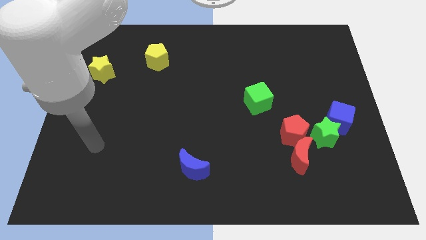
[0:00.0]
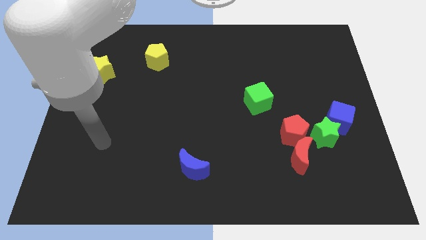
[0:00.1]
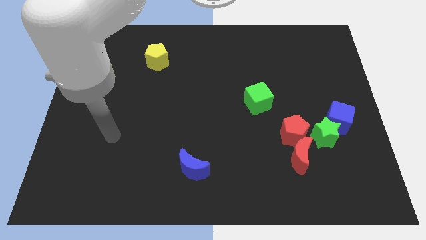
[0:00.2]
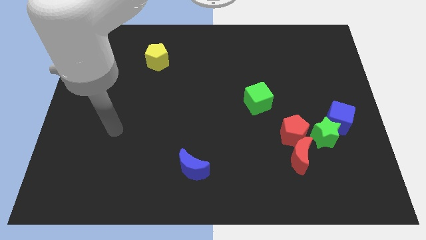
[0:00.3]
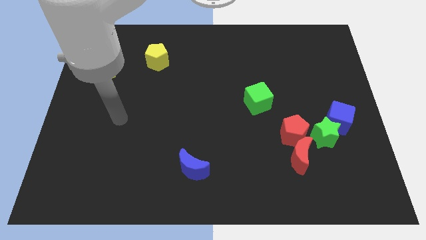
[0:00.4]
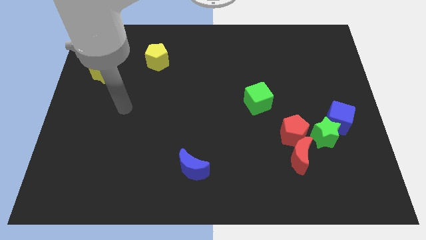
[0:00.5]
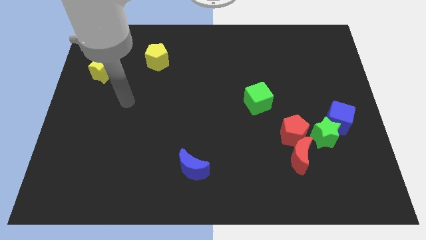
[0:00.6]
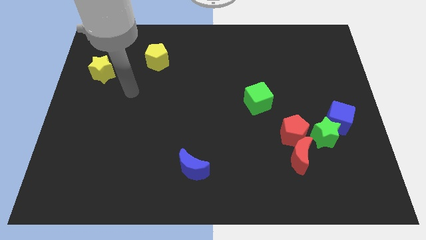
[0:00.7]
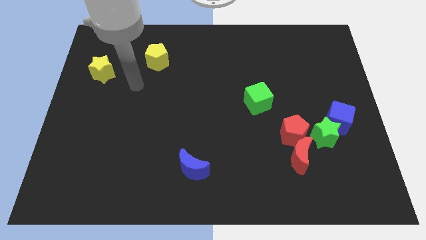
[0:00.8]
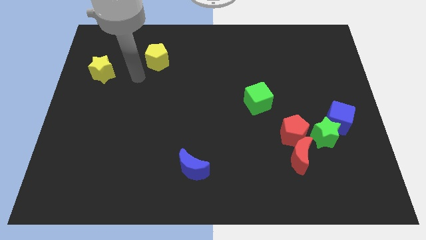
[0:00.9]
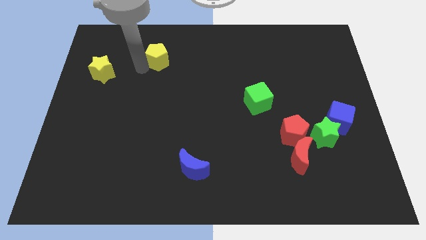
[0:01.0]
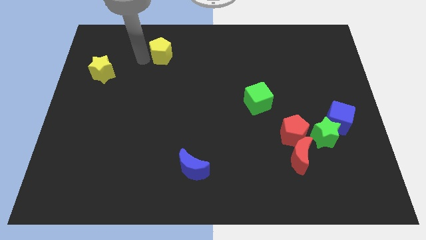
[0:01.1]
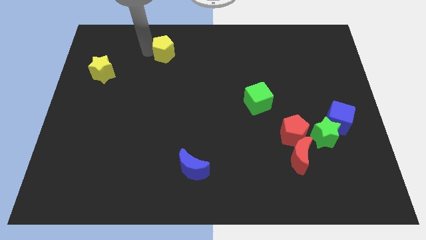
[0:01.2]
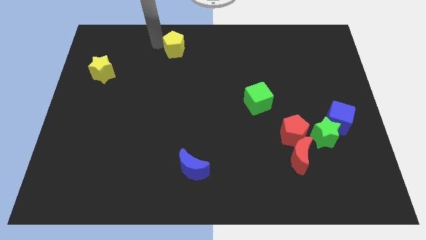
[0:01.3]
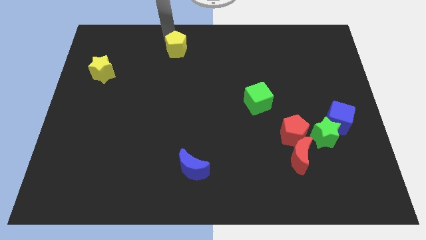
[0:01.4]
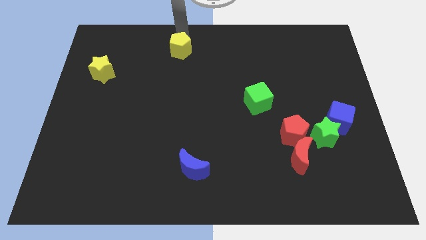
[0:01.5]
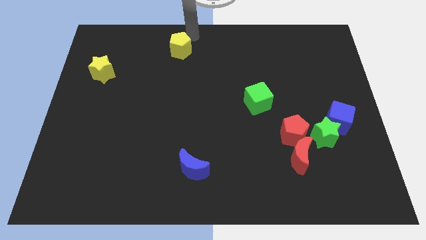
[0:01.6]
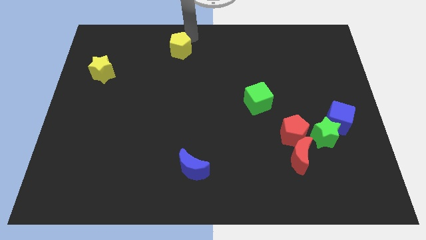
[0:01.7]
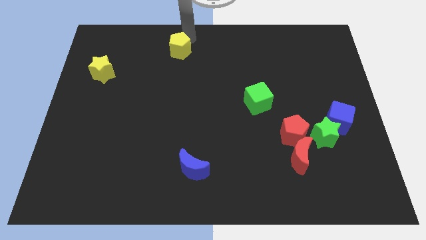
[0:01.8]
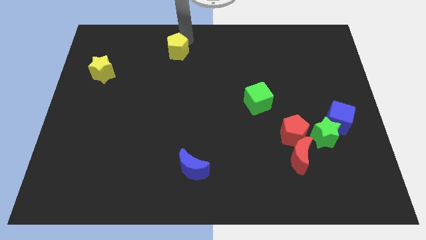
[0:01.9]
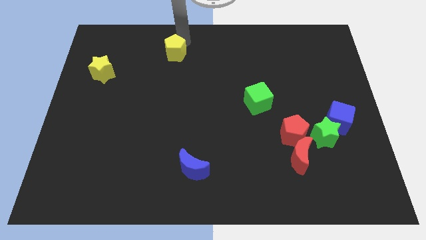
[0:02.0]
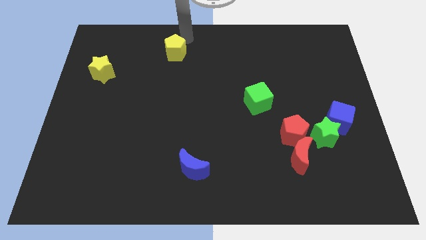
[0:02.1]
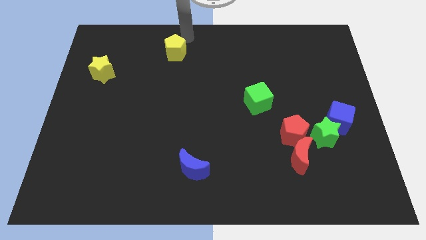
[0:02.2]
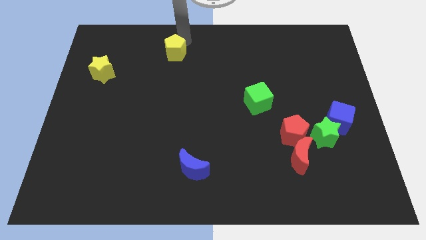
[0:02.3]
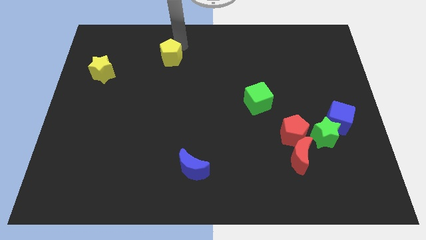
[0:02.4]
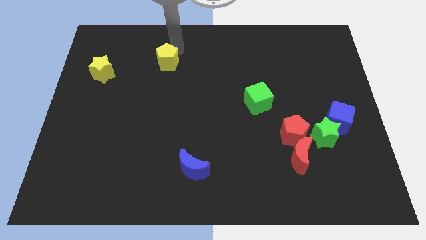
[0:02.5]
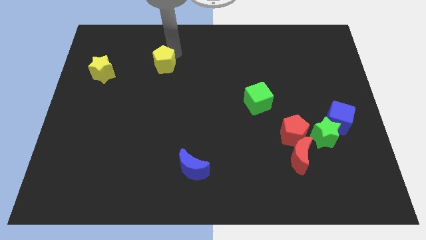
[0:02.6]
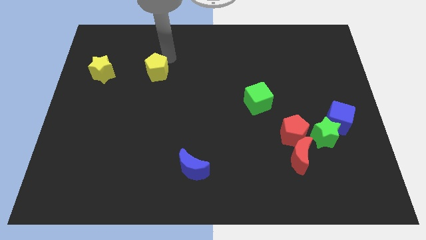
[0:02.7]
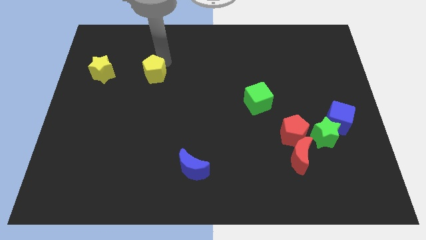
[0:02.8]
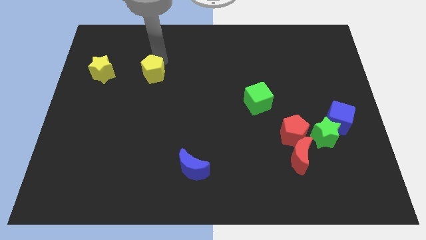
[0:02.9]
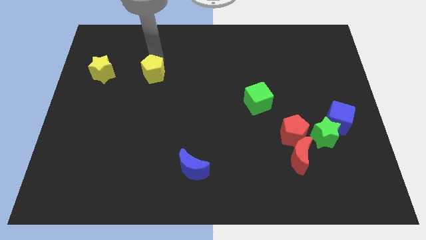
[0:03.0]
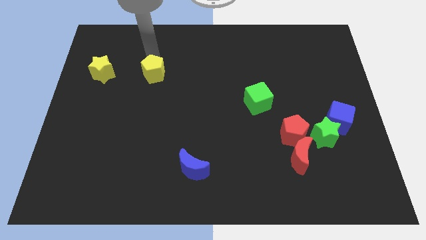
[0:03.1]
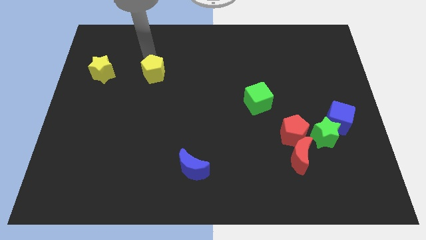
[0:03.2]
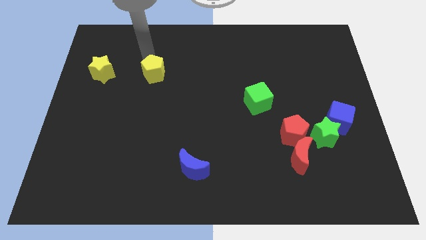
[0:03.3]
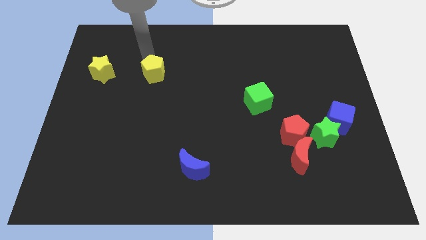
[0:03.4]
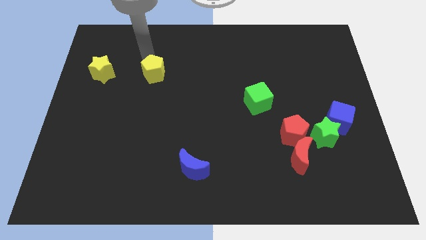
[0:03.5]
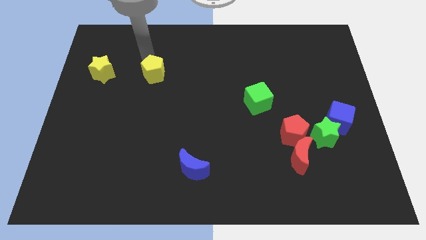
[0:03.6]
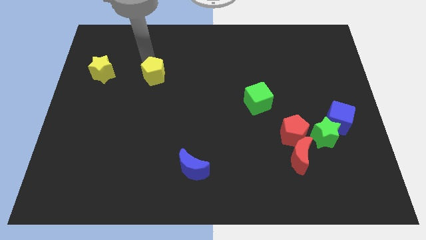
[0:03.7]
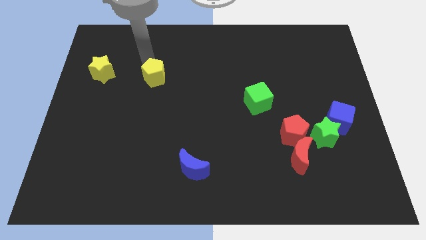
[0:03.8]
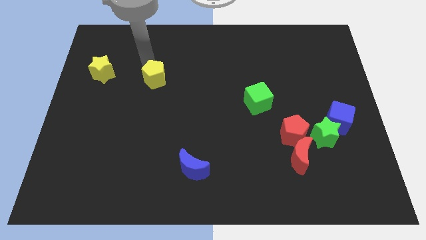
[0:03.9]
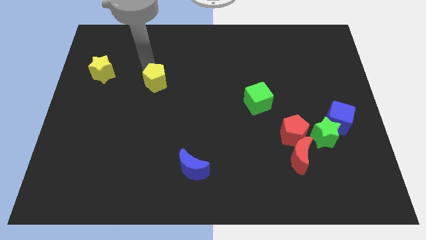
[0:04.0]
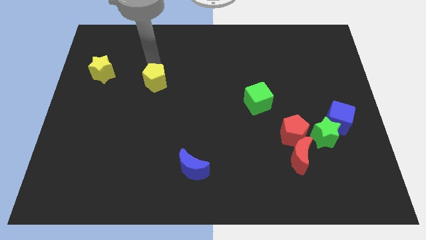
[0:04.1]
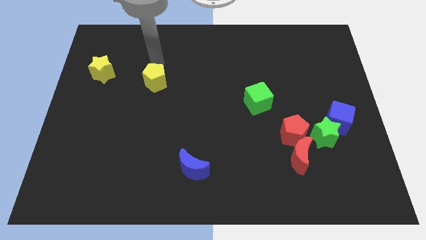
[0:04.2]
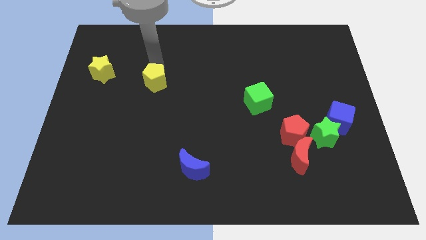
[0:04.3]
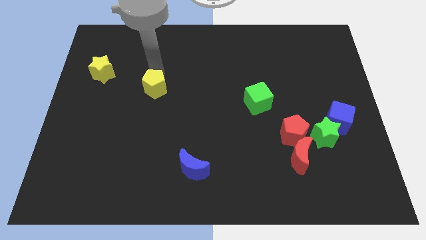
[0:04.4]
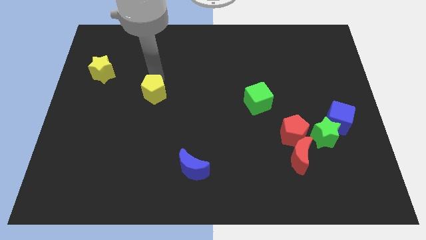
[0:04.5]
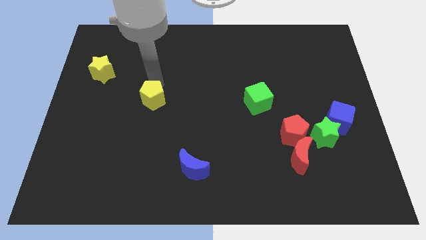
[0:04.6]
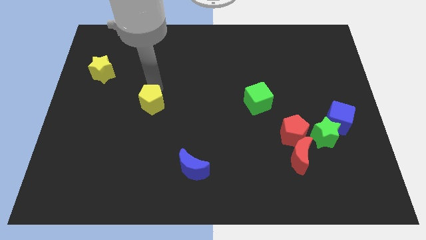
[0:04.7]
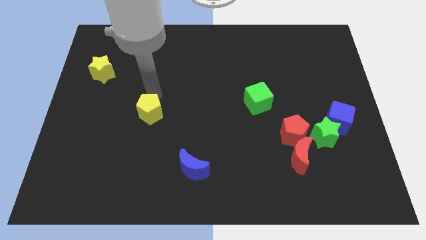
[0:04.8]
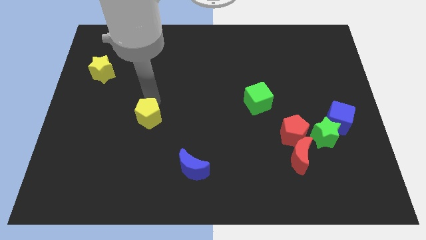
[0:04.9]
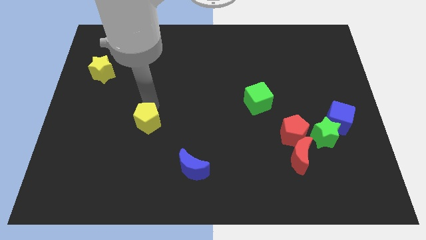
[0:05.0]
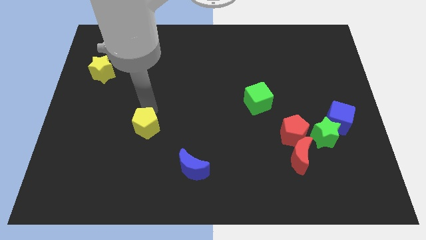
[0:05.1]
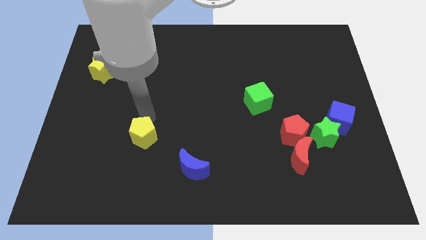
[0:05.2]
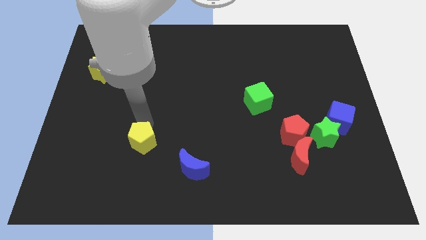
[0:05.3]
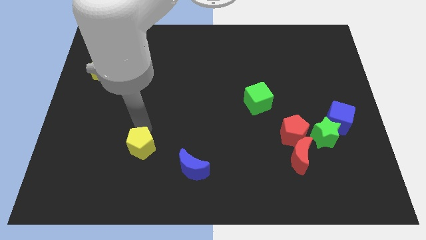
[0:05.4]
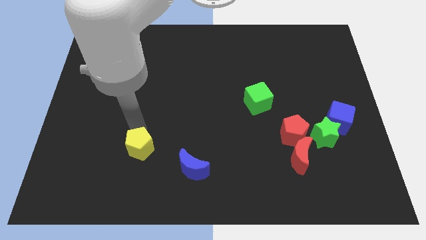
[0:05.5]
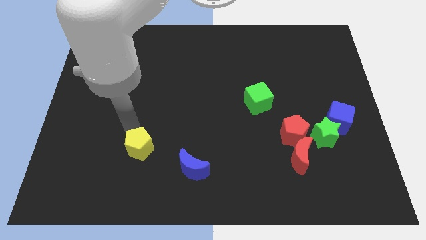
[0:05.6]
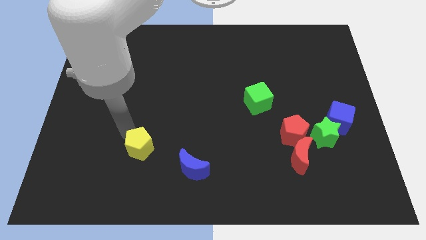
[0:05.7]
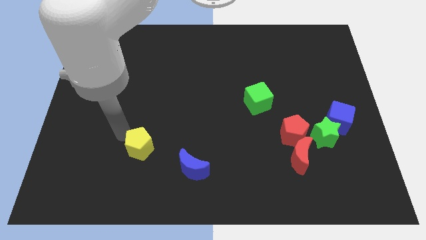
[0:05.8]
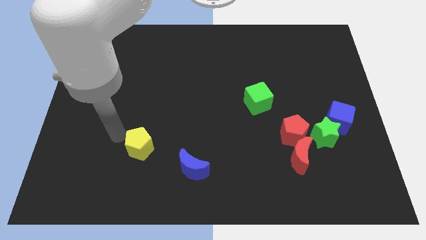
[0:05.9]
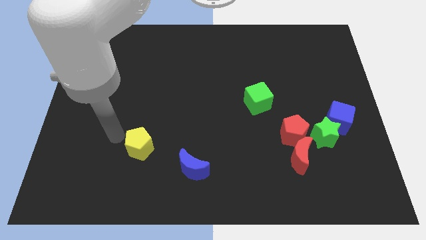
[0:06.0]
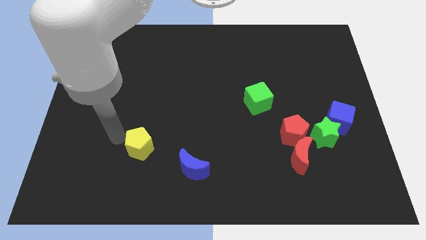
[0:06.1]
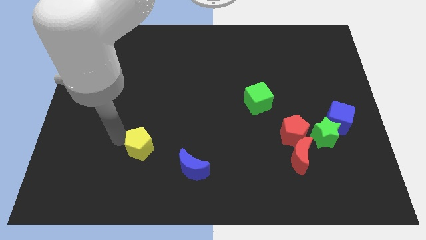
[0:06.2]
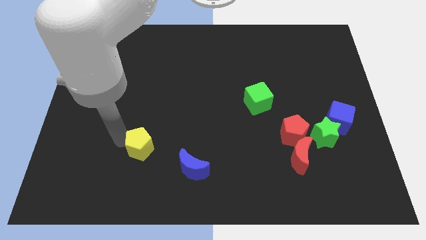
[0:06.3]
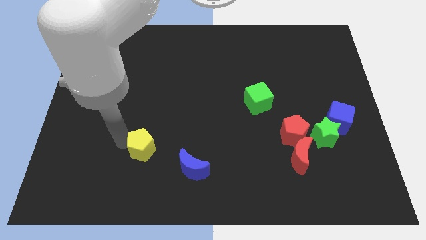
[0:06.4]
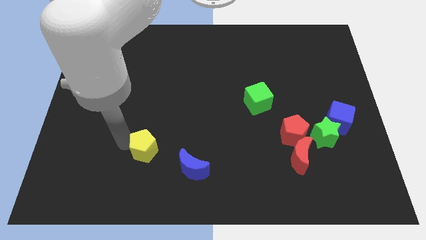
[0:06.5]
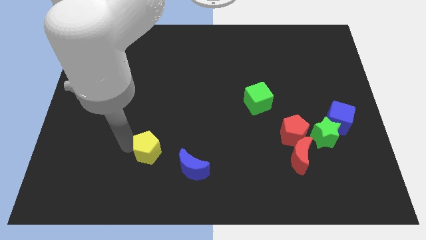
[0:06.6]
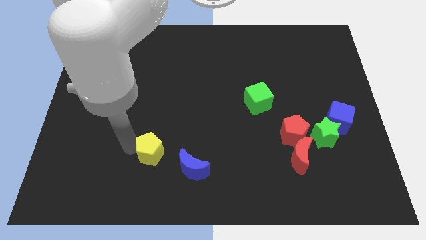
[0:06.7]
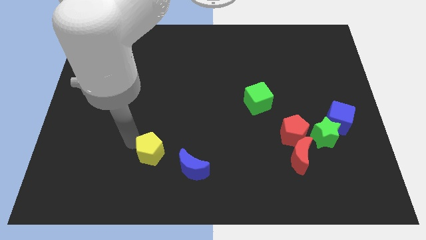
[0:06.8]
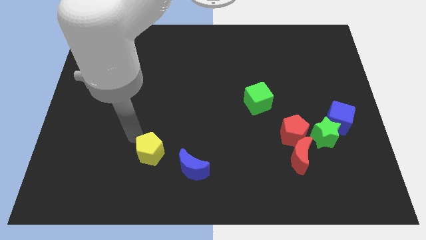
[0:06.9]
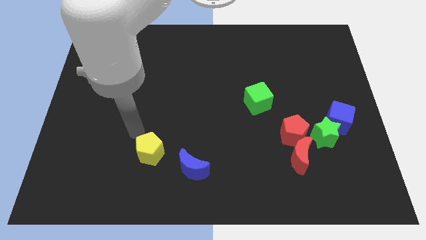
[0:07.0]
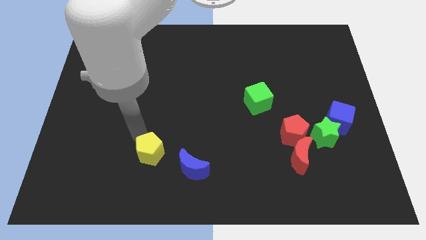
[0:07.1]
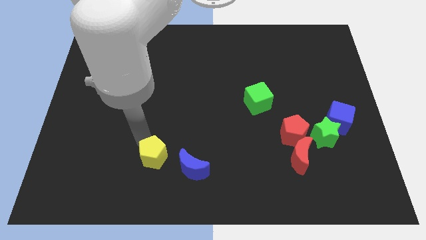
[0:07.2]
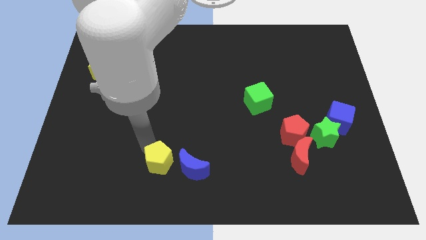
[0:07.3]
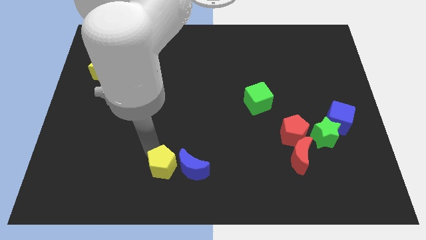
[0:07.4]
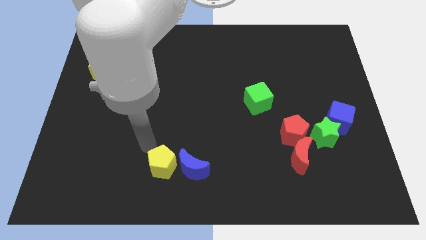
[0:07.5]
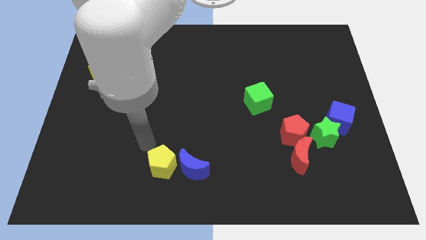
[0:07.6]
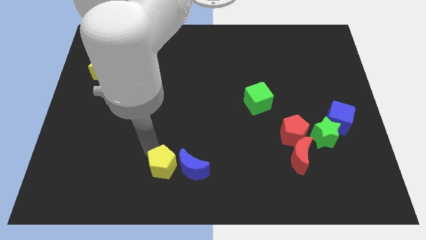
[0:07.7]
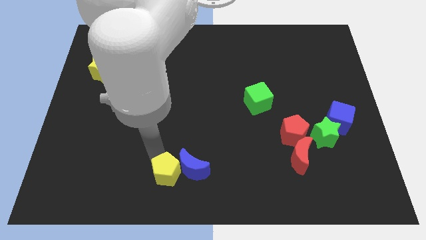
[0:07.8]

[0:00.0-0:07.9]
put the yellow pentagon to the bottom side
